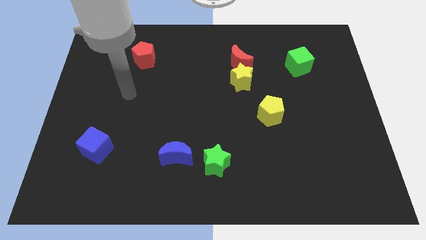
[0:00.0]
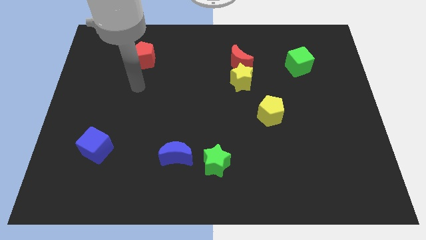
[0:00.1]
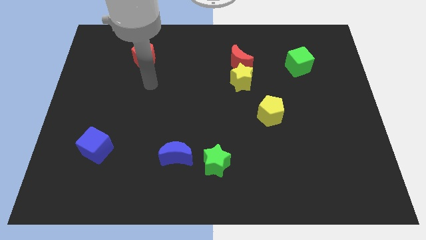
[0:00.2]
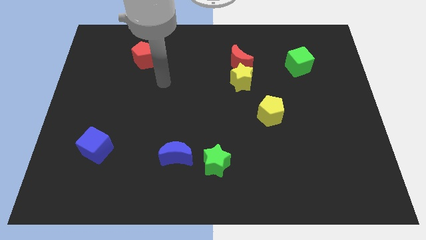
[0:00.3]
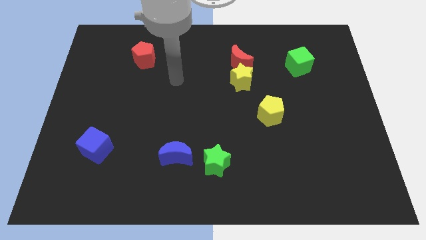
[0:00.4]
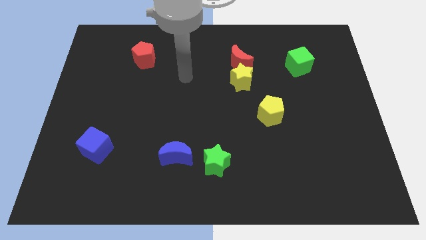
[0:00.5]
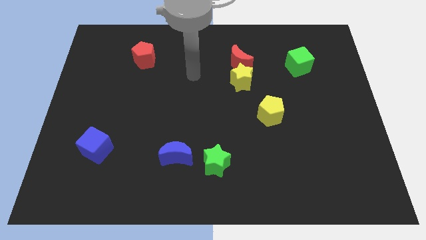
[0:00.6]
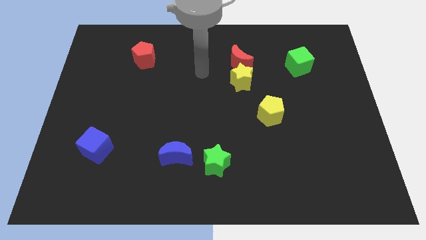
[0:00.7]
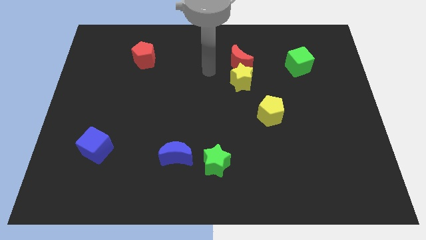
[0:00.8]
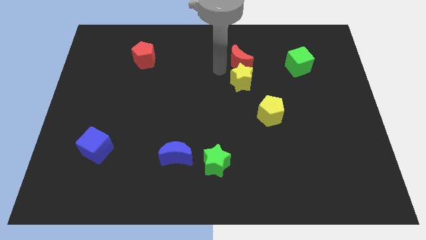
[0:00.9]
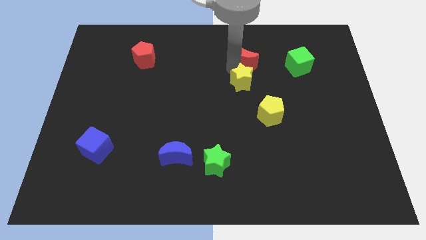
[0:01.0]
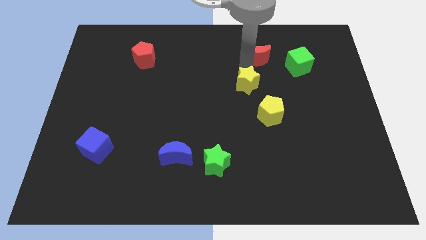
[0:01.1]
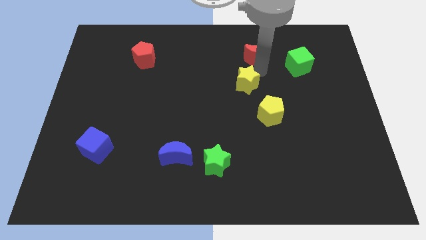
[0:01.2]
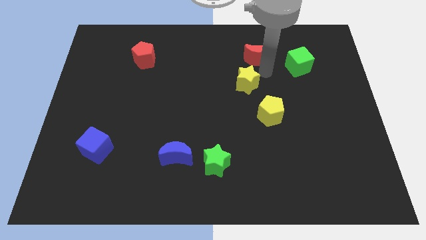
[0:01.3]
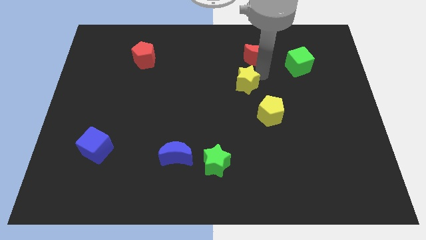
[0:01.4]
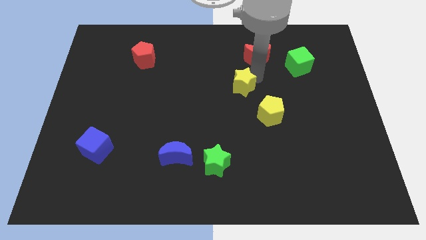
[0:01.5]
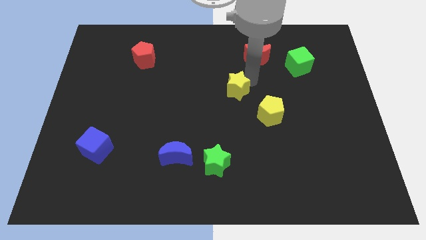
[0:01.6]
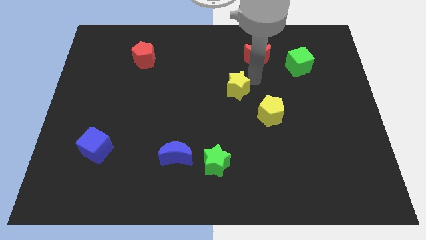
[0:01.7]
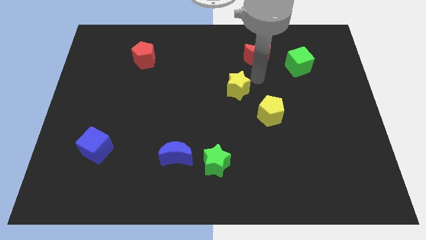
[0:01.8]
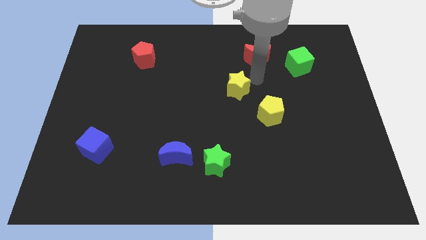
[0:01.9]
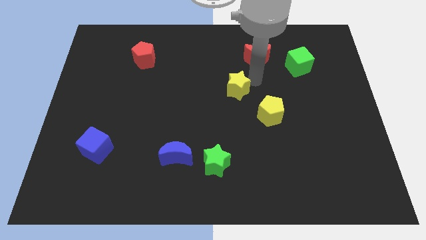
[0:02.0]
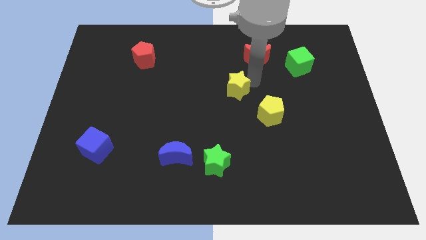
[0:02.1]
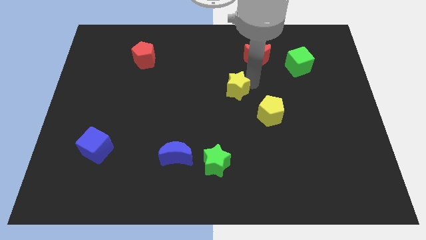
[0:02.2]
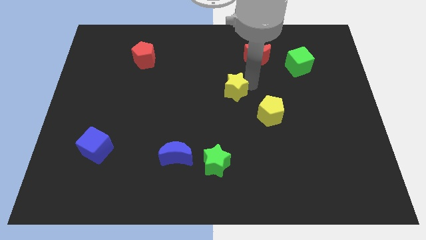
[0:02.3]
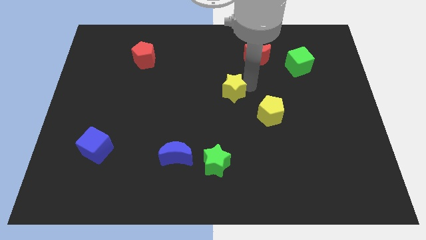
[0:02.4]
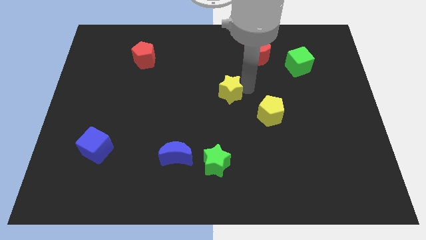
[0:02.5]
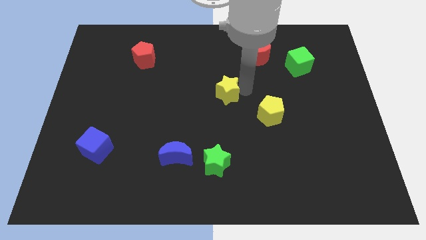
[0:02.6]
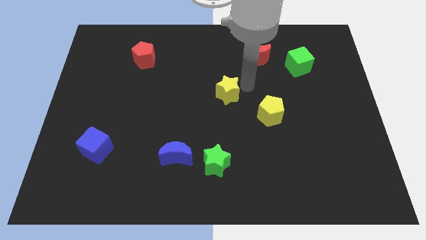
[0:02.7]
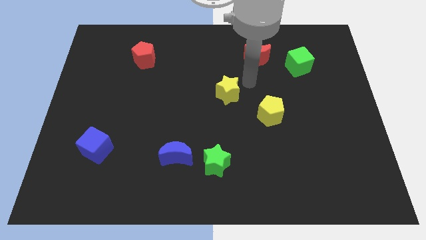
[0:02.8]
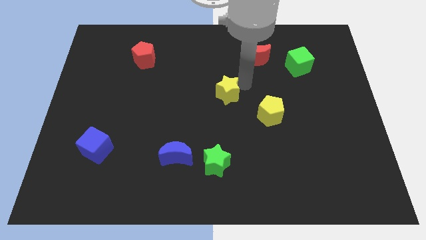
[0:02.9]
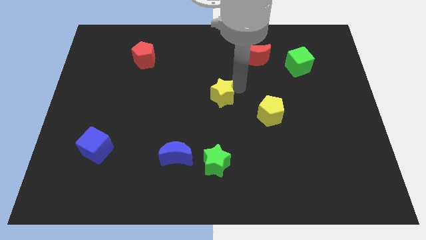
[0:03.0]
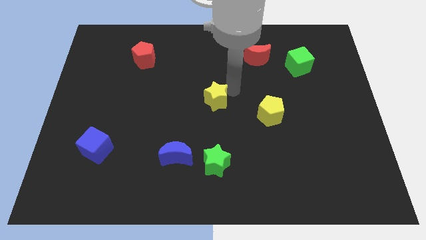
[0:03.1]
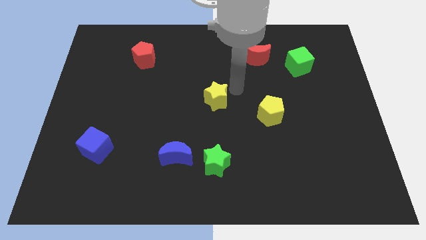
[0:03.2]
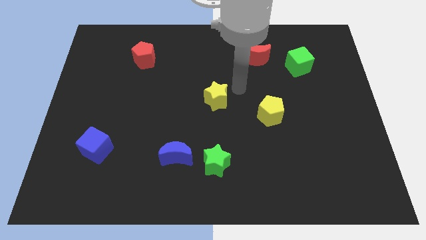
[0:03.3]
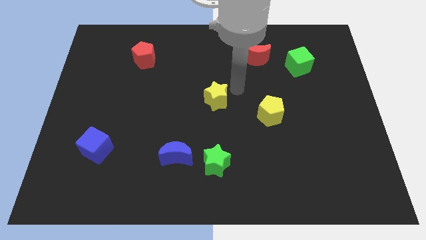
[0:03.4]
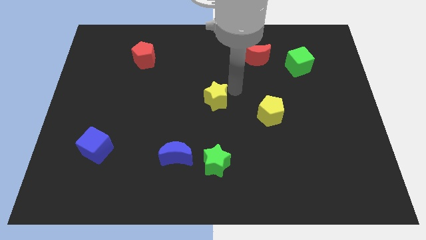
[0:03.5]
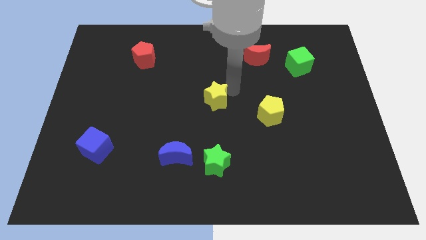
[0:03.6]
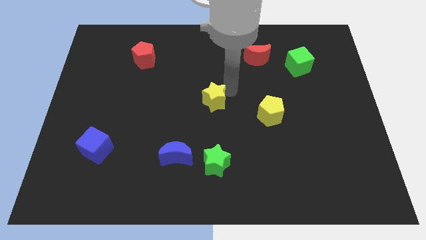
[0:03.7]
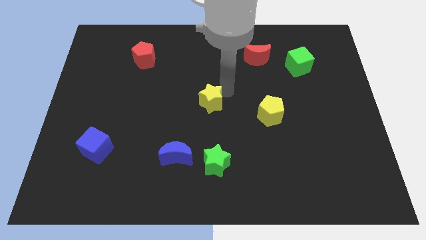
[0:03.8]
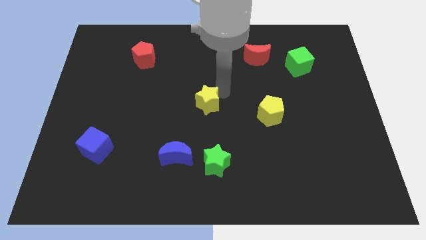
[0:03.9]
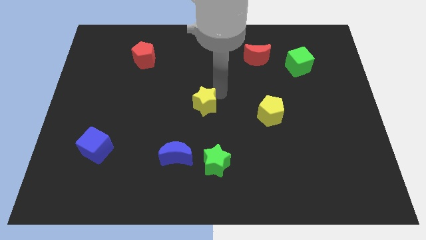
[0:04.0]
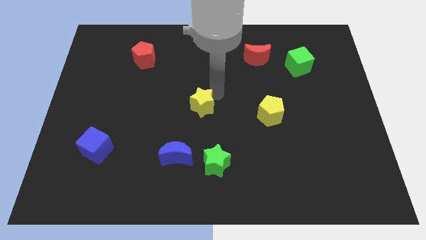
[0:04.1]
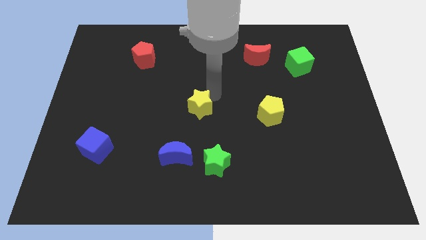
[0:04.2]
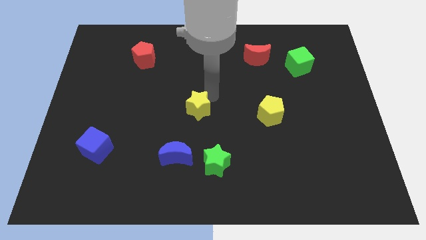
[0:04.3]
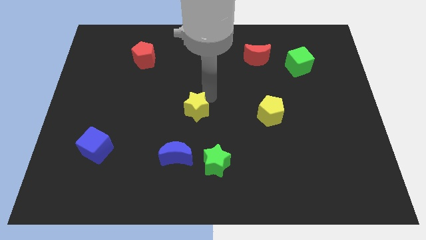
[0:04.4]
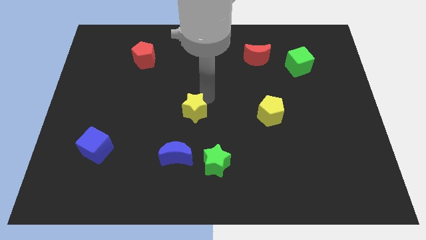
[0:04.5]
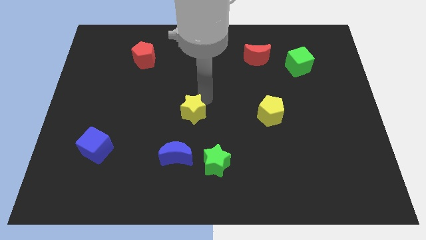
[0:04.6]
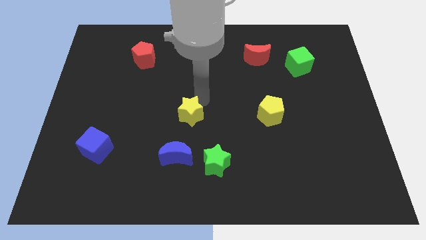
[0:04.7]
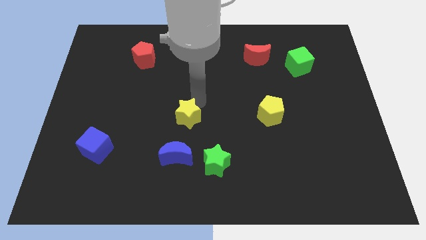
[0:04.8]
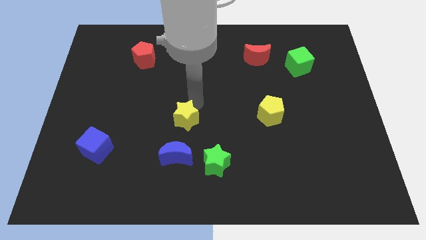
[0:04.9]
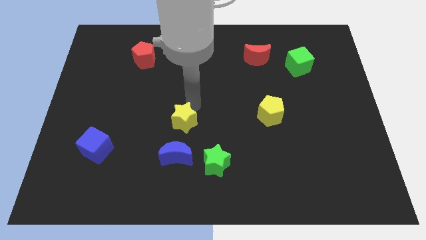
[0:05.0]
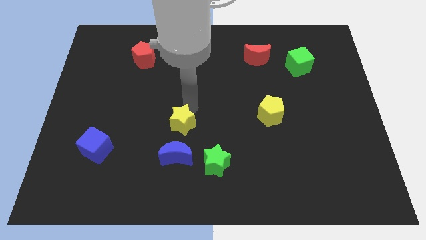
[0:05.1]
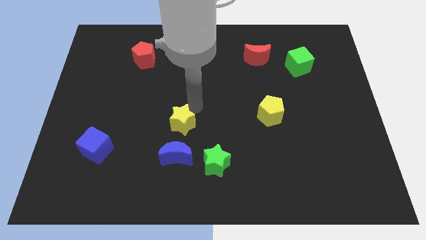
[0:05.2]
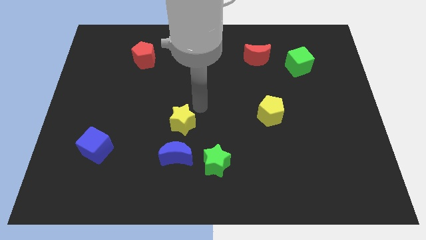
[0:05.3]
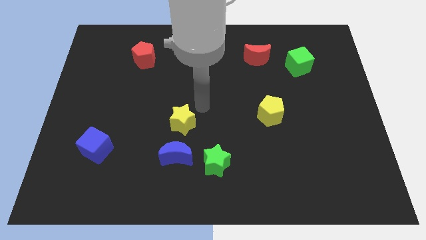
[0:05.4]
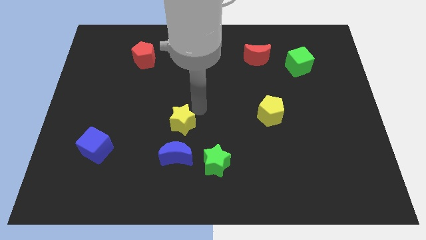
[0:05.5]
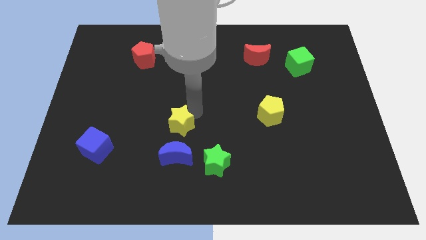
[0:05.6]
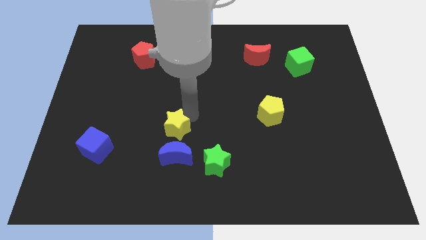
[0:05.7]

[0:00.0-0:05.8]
slide the yellow star downwards and to the left diagonally

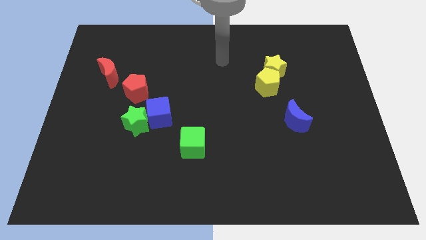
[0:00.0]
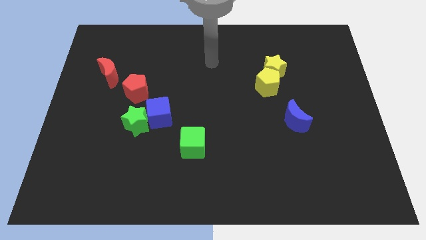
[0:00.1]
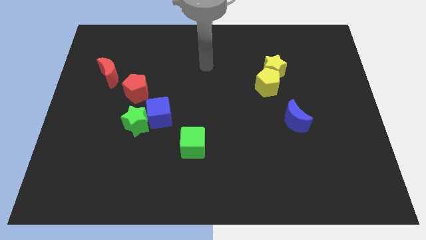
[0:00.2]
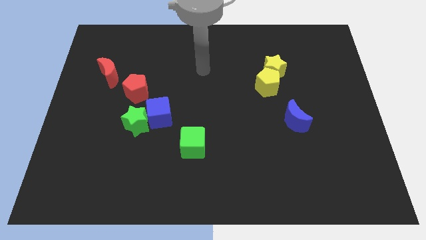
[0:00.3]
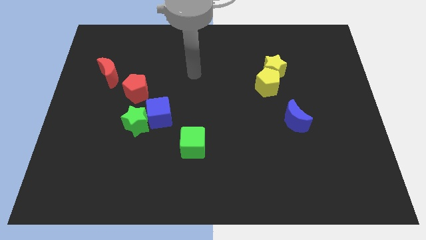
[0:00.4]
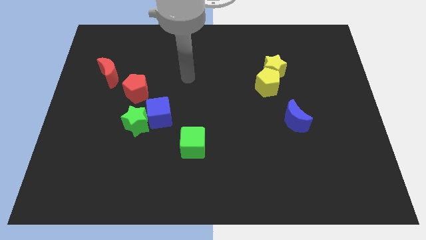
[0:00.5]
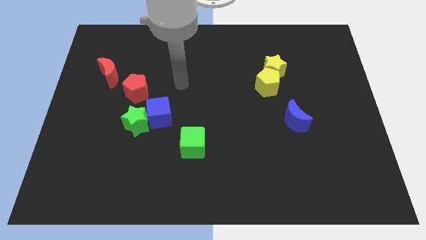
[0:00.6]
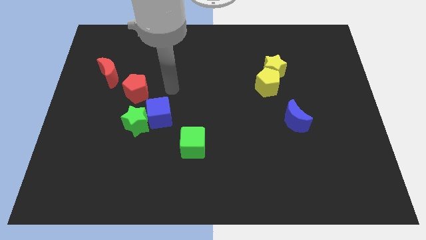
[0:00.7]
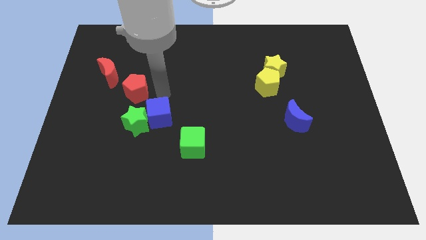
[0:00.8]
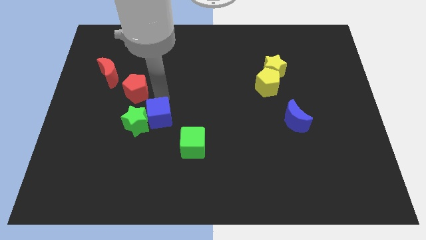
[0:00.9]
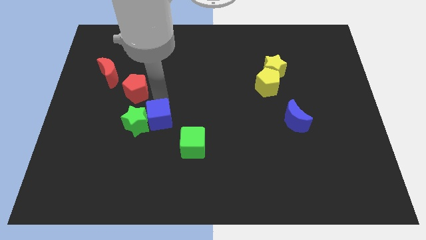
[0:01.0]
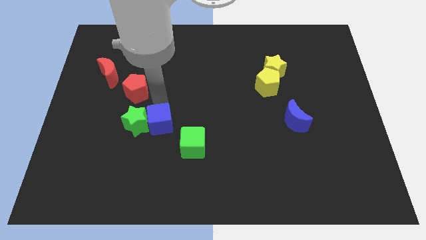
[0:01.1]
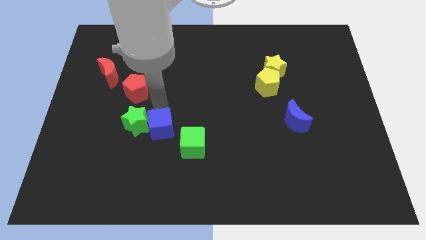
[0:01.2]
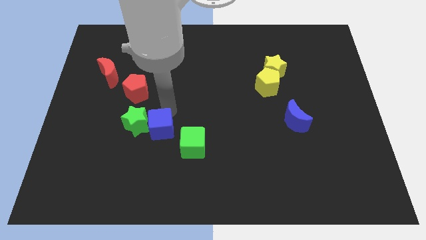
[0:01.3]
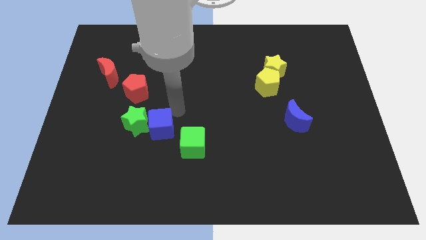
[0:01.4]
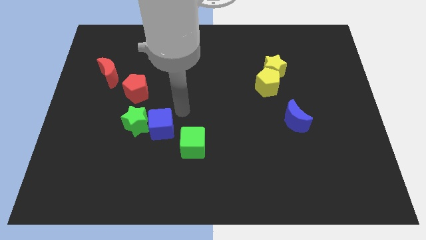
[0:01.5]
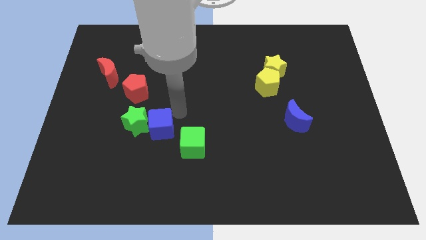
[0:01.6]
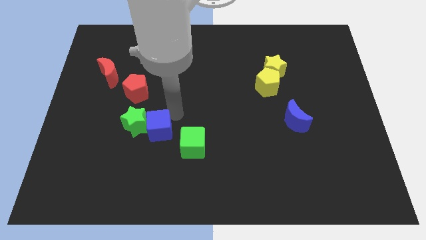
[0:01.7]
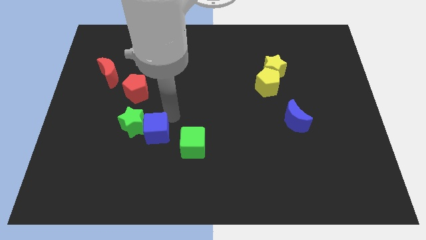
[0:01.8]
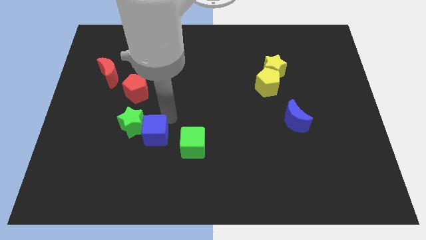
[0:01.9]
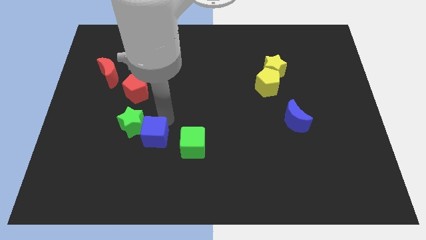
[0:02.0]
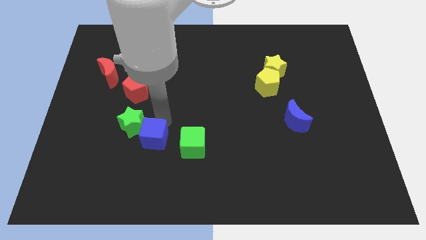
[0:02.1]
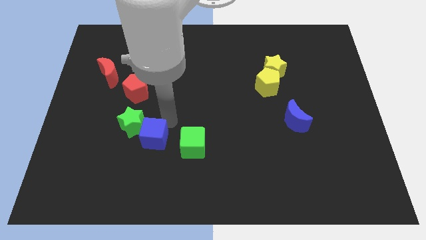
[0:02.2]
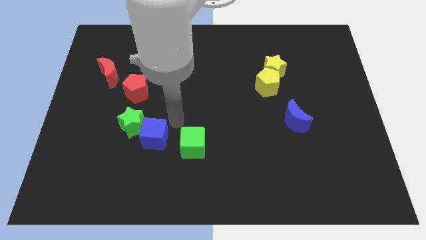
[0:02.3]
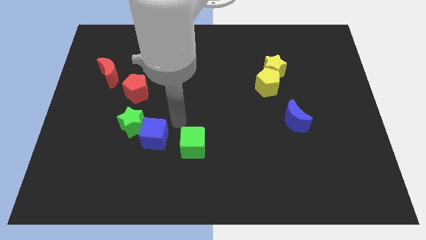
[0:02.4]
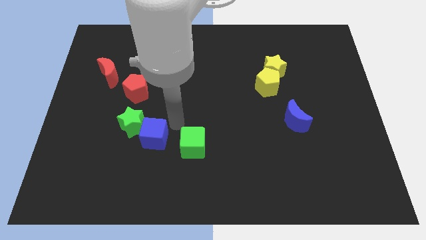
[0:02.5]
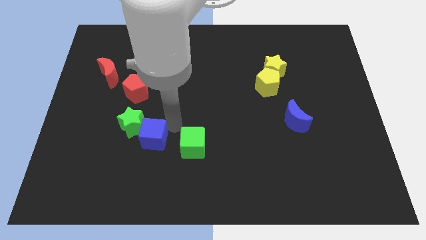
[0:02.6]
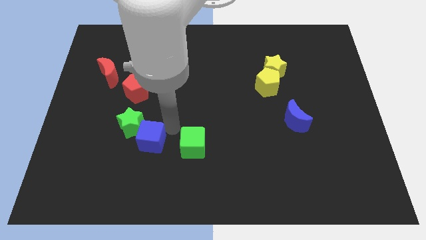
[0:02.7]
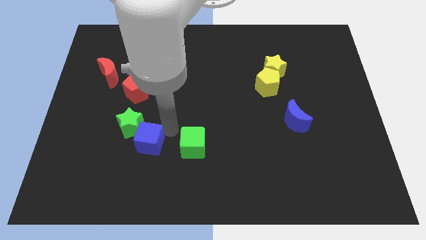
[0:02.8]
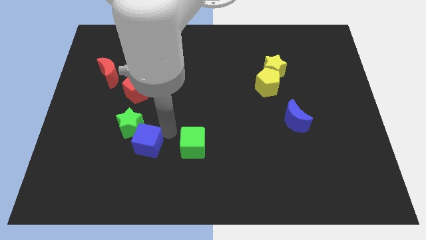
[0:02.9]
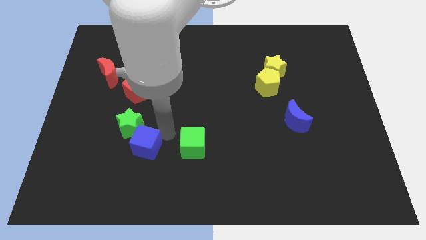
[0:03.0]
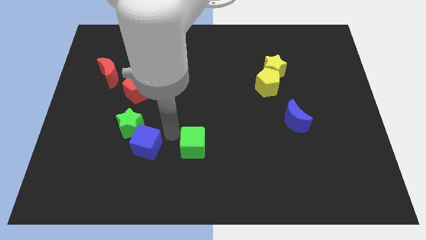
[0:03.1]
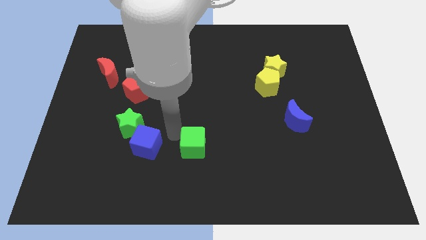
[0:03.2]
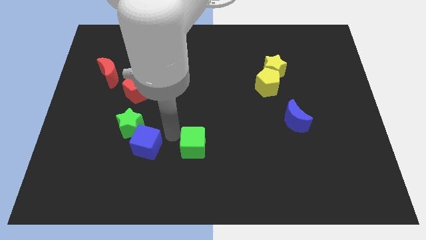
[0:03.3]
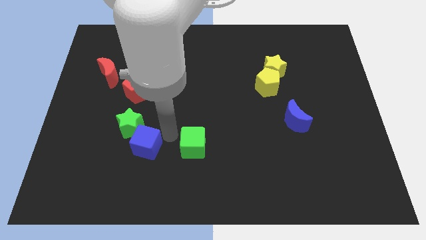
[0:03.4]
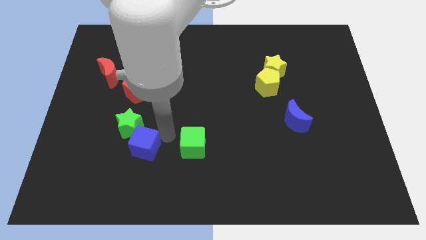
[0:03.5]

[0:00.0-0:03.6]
move the blue cube down and to the left a little bit
